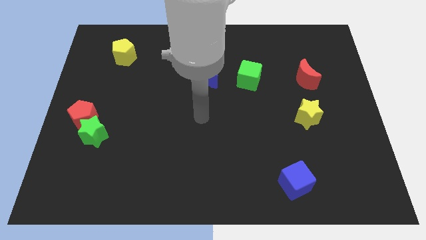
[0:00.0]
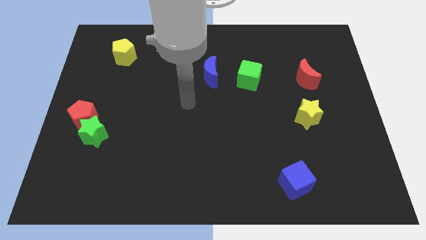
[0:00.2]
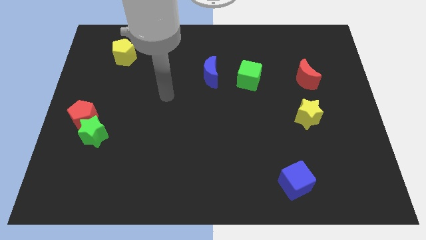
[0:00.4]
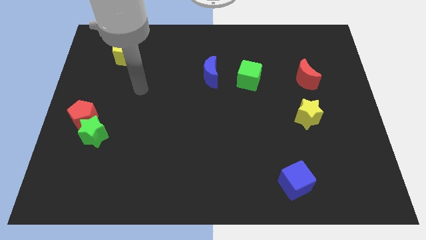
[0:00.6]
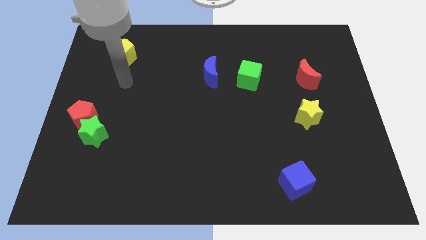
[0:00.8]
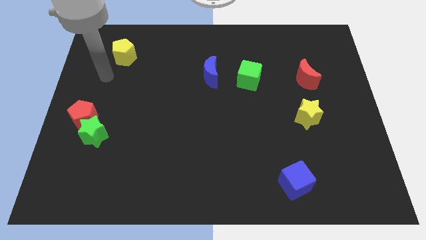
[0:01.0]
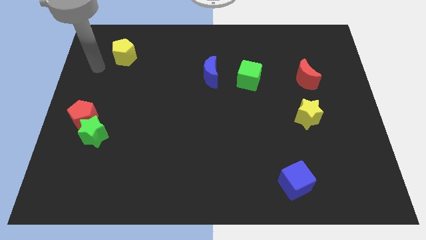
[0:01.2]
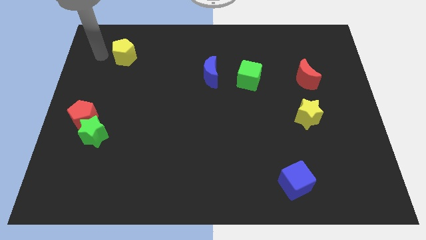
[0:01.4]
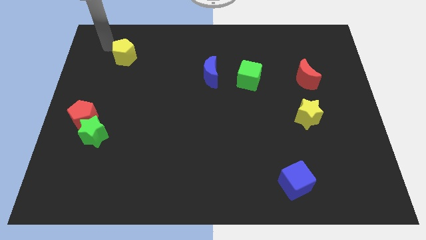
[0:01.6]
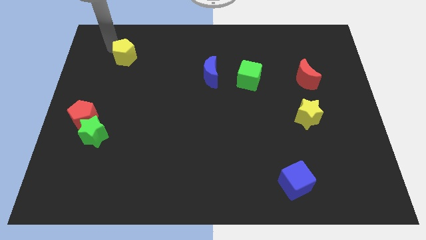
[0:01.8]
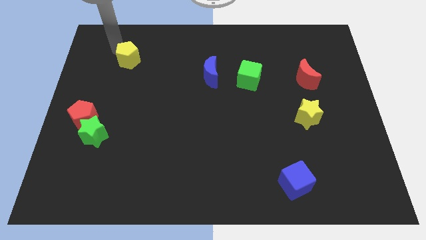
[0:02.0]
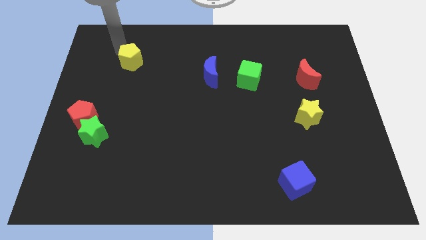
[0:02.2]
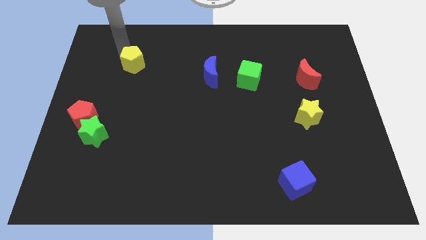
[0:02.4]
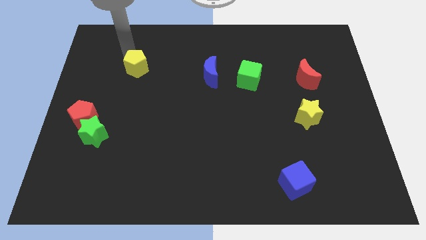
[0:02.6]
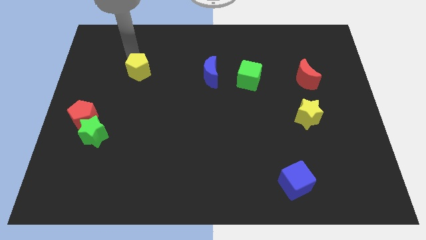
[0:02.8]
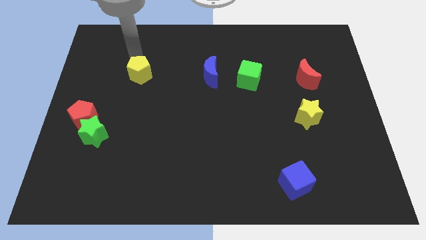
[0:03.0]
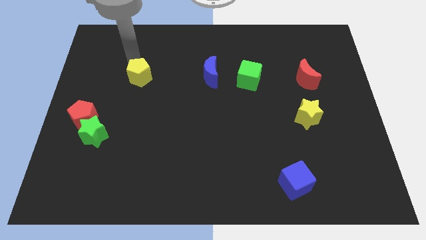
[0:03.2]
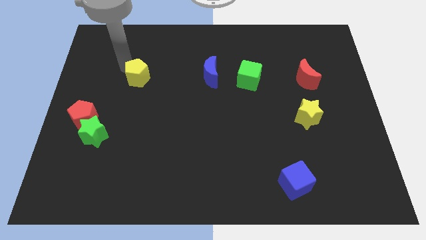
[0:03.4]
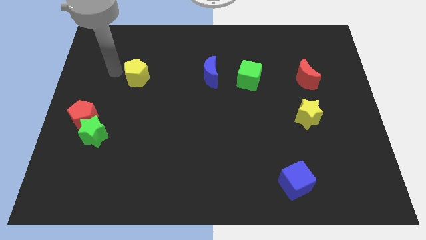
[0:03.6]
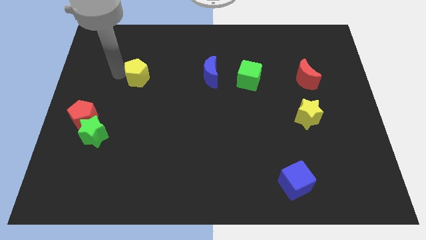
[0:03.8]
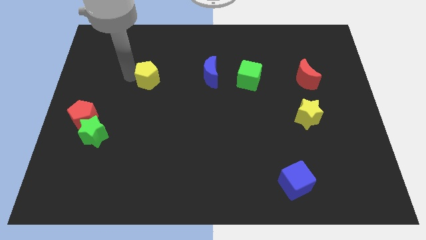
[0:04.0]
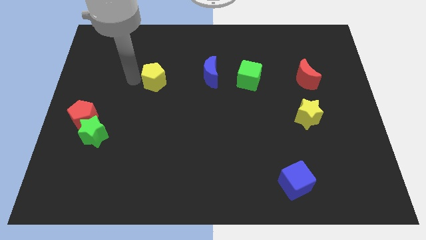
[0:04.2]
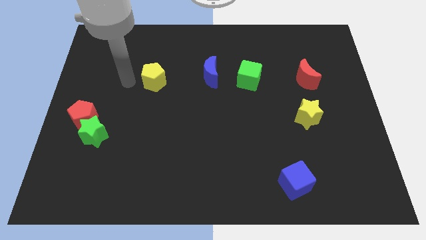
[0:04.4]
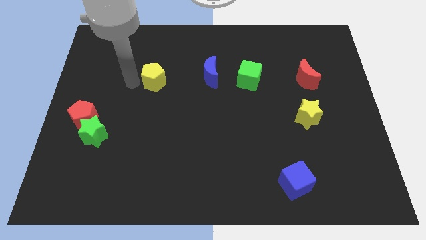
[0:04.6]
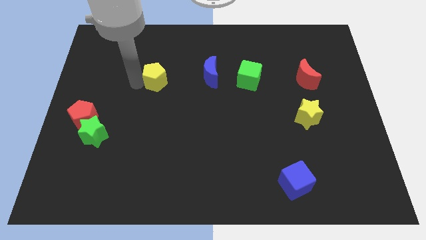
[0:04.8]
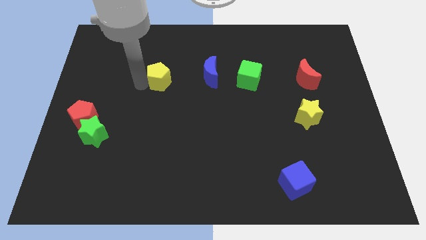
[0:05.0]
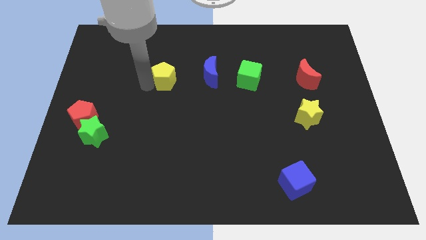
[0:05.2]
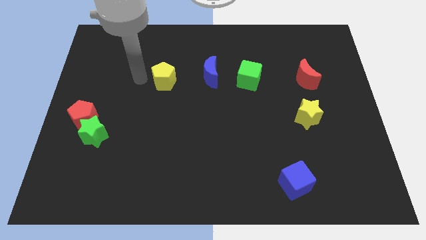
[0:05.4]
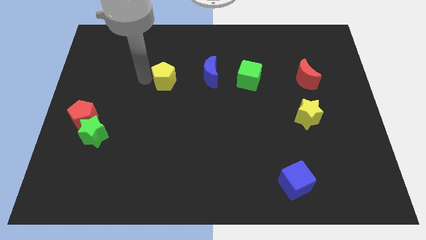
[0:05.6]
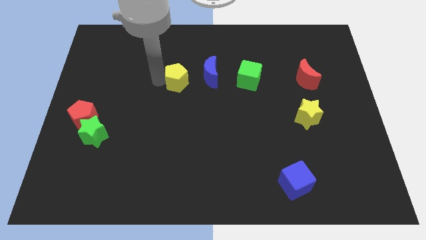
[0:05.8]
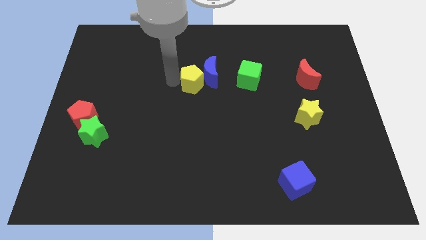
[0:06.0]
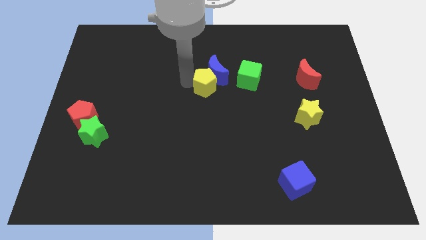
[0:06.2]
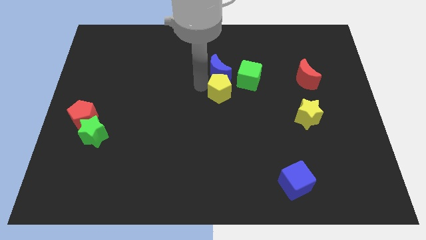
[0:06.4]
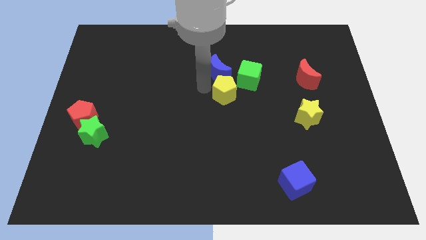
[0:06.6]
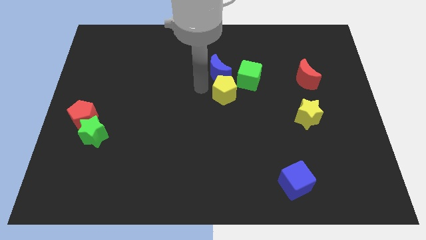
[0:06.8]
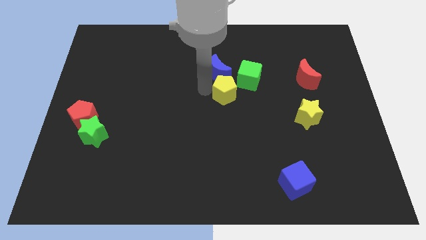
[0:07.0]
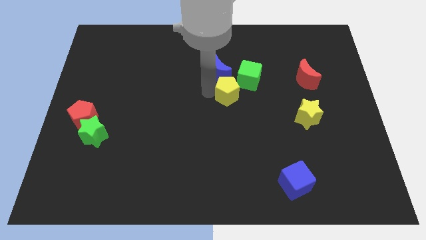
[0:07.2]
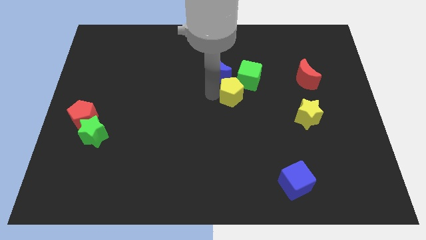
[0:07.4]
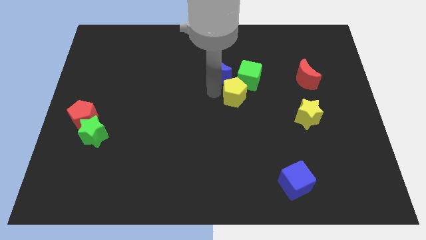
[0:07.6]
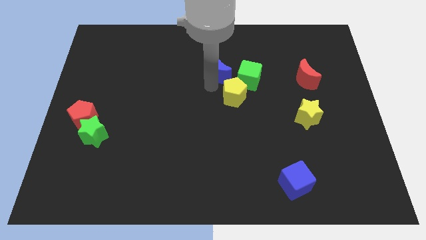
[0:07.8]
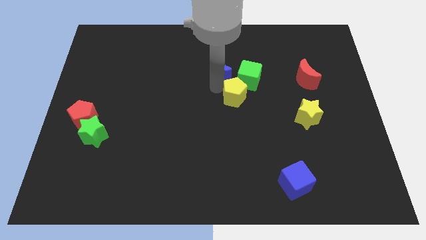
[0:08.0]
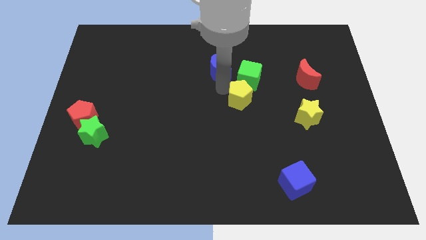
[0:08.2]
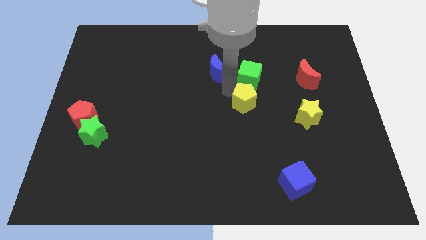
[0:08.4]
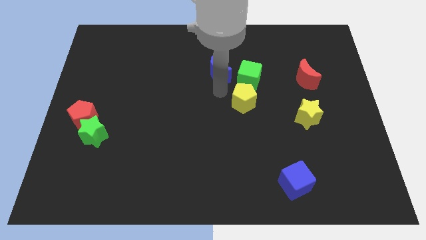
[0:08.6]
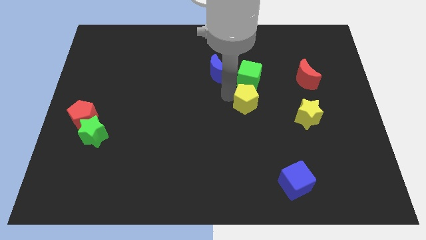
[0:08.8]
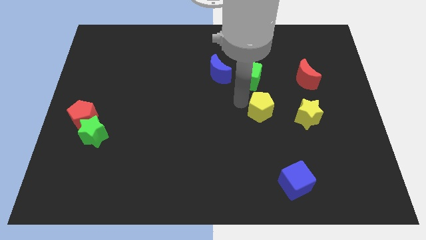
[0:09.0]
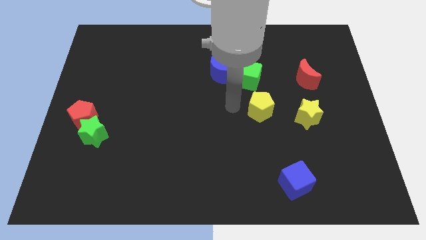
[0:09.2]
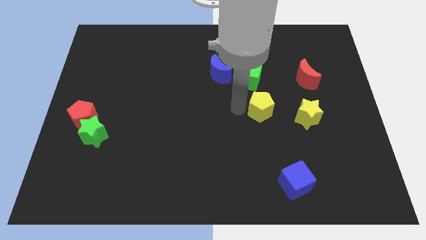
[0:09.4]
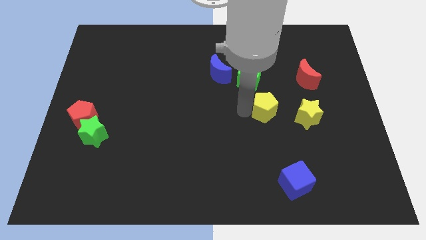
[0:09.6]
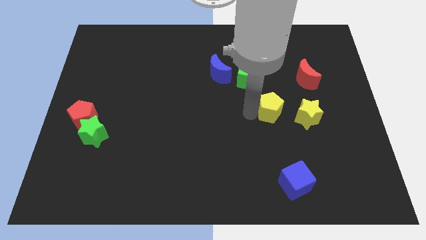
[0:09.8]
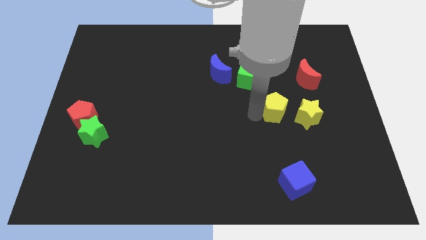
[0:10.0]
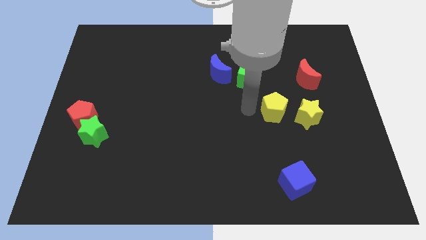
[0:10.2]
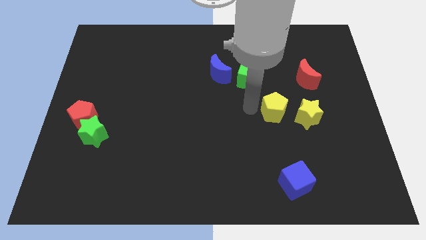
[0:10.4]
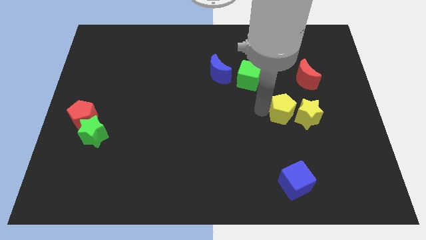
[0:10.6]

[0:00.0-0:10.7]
slide the yellow pentagon close to the yellow star

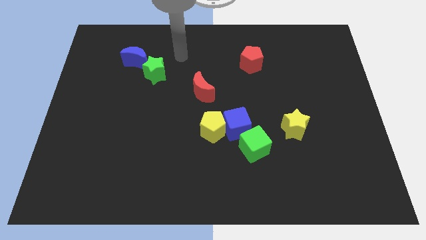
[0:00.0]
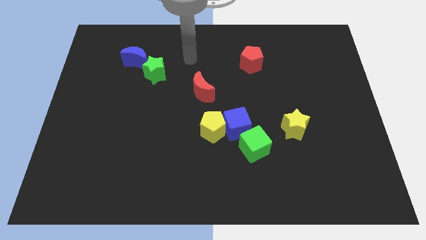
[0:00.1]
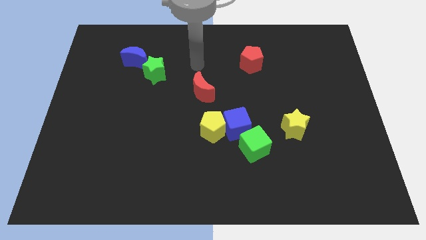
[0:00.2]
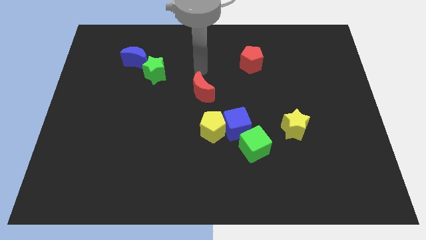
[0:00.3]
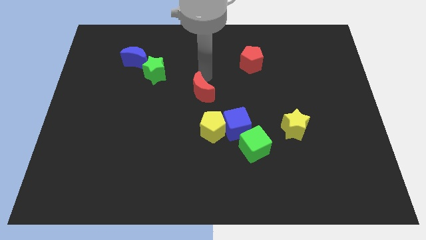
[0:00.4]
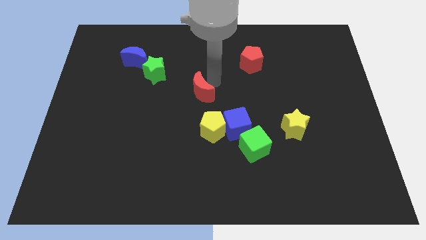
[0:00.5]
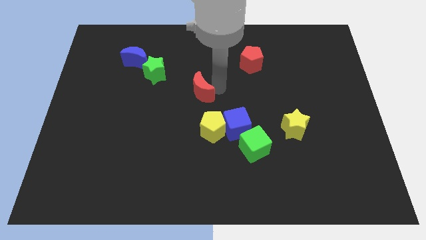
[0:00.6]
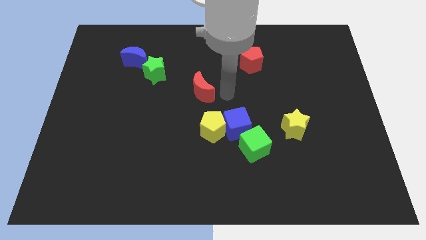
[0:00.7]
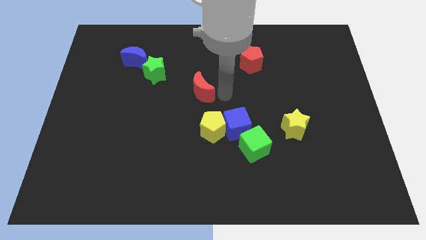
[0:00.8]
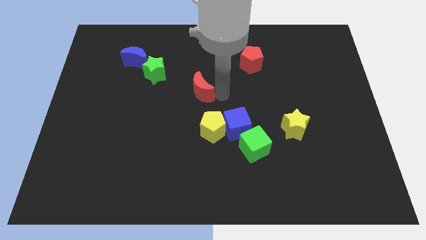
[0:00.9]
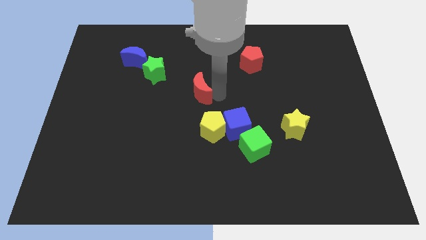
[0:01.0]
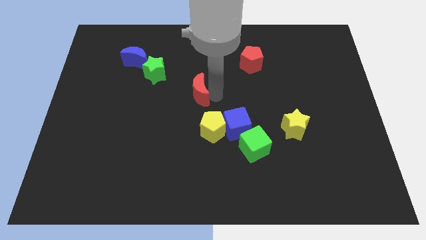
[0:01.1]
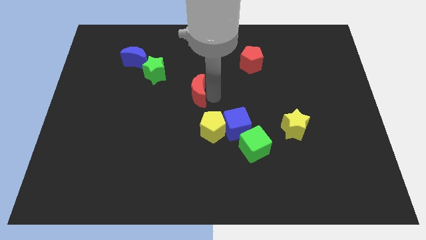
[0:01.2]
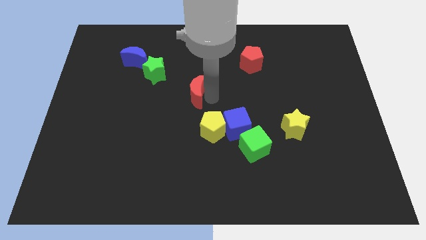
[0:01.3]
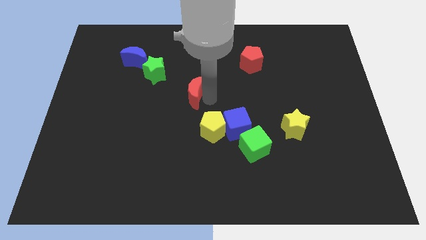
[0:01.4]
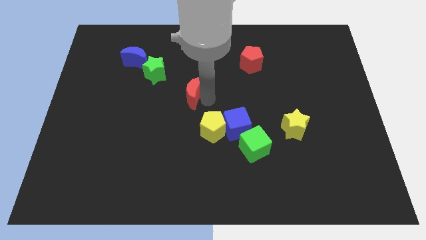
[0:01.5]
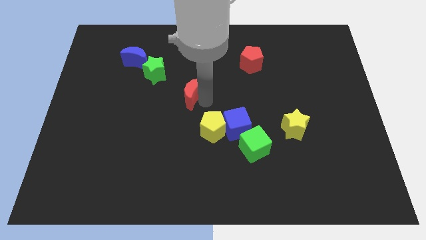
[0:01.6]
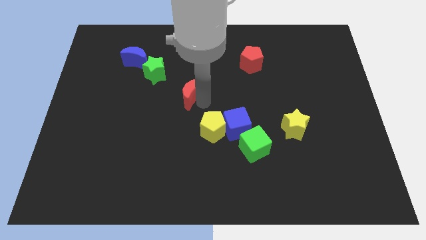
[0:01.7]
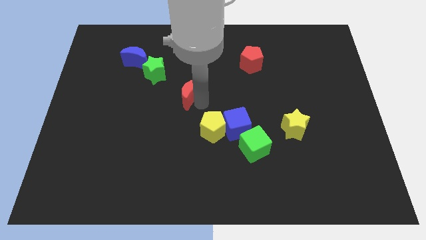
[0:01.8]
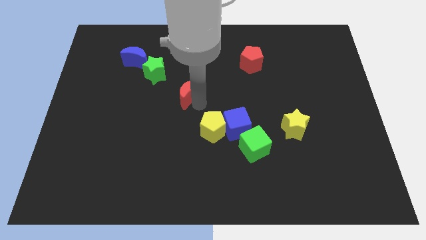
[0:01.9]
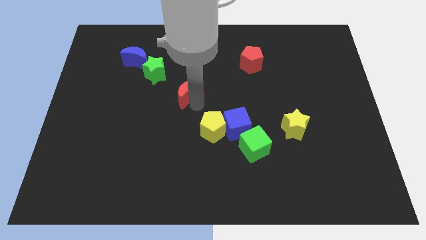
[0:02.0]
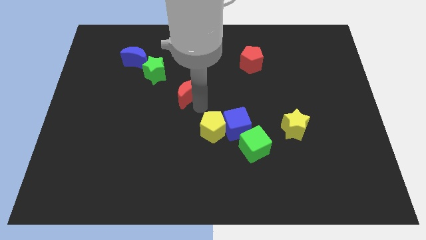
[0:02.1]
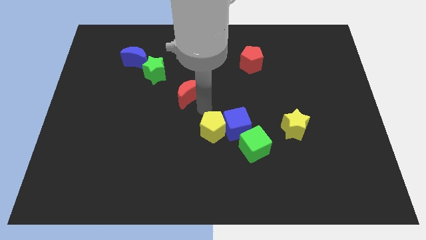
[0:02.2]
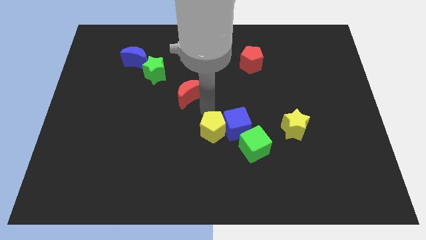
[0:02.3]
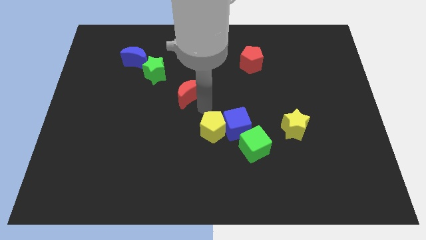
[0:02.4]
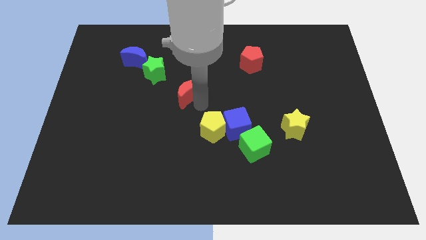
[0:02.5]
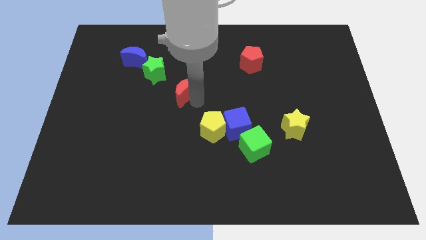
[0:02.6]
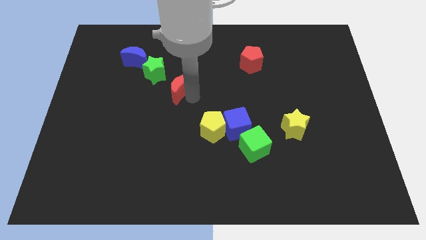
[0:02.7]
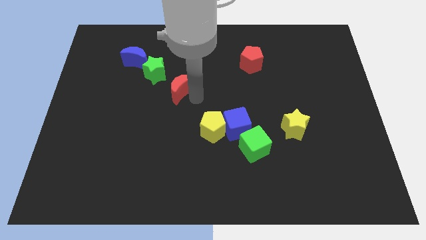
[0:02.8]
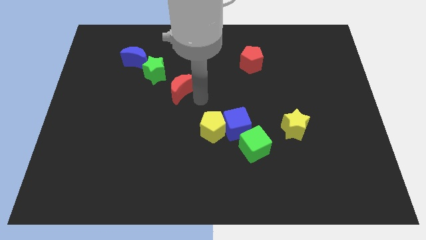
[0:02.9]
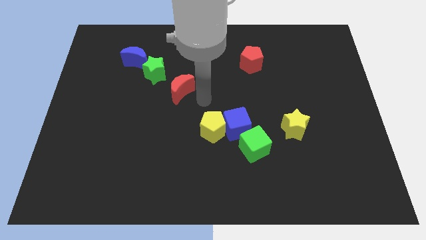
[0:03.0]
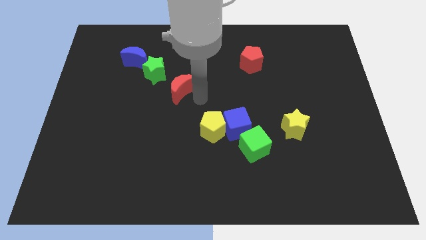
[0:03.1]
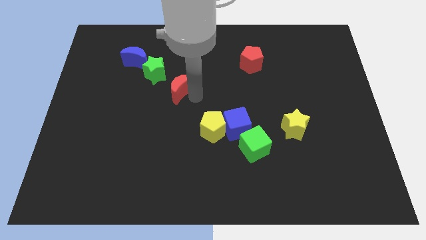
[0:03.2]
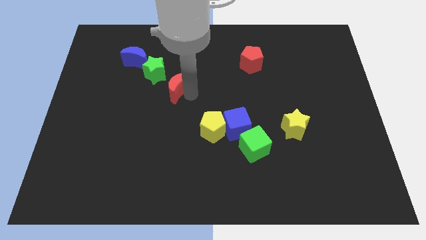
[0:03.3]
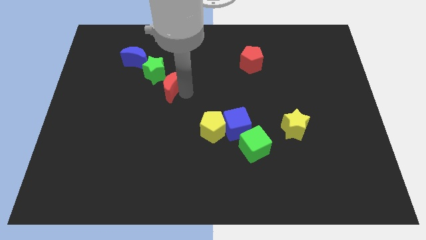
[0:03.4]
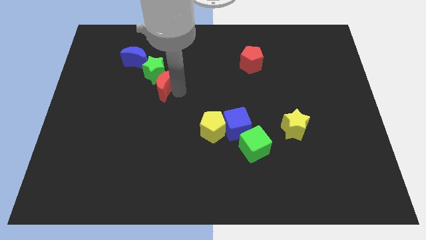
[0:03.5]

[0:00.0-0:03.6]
put the red moon to the green star
